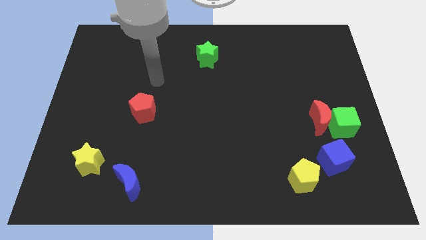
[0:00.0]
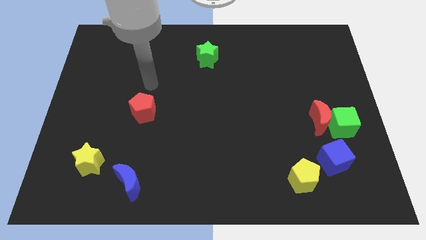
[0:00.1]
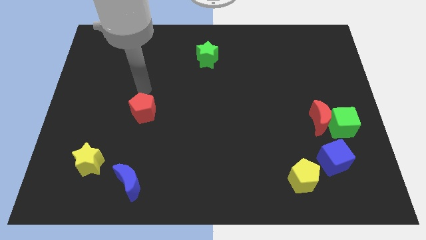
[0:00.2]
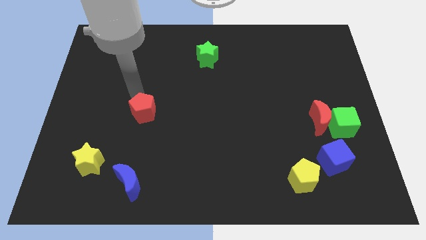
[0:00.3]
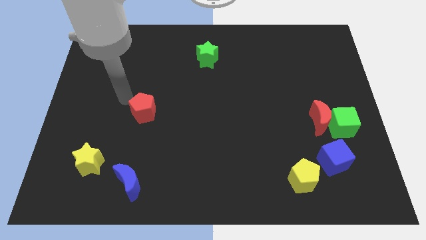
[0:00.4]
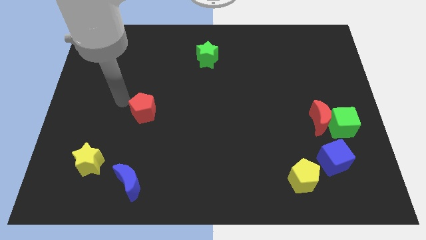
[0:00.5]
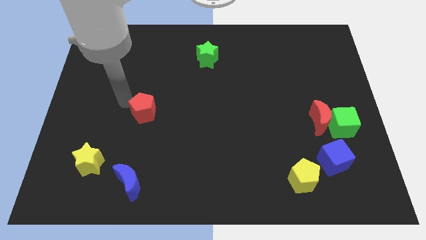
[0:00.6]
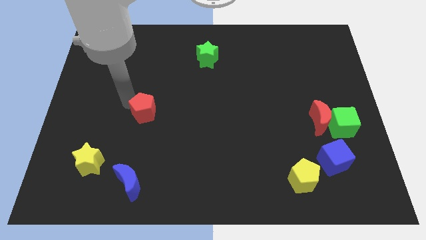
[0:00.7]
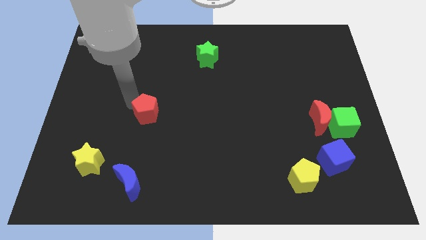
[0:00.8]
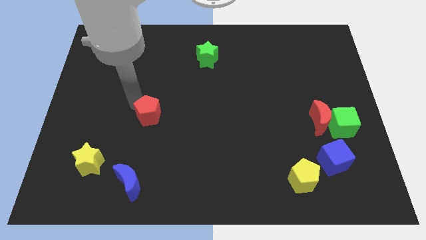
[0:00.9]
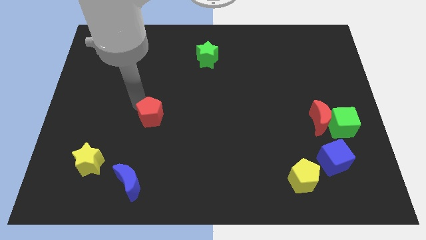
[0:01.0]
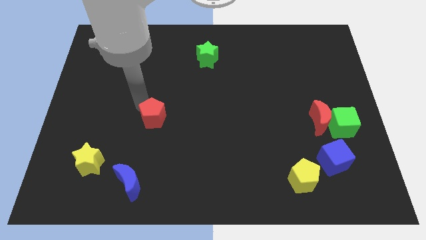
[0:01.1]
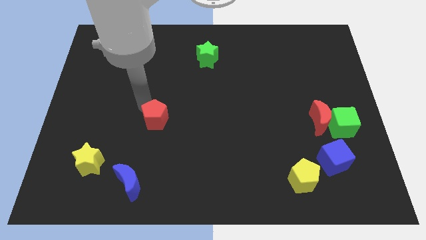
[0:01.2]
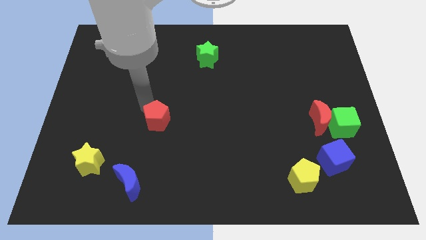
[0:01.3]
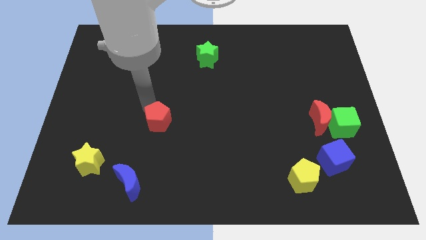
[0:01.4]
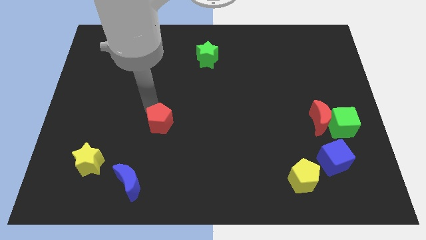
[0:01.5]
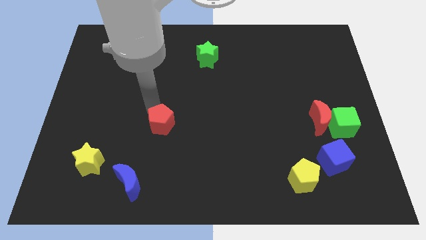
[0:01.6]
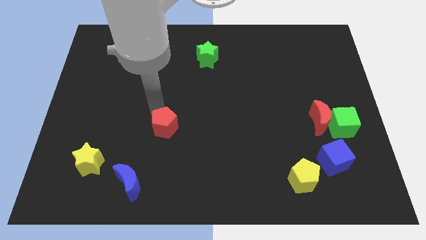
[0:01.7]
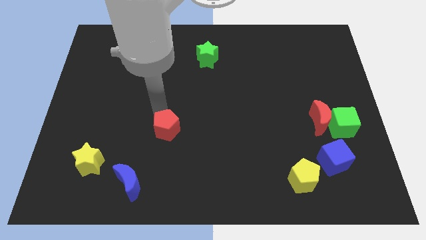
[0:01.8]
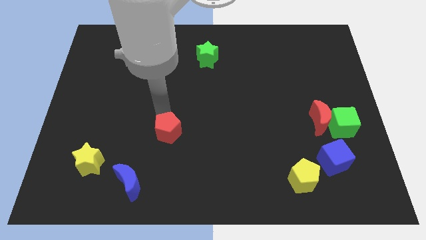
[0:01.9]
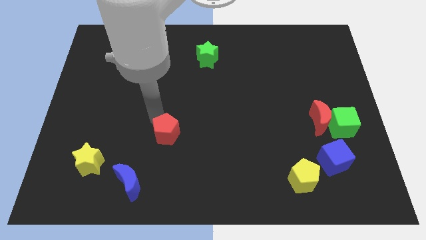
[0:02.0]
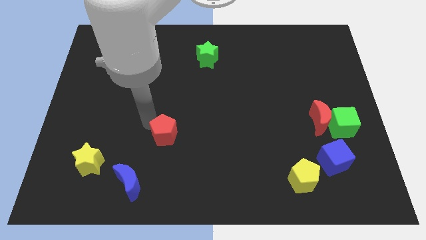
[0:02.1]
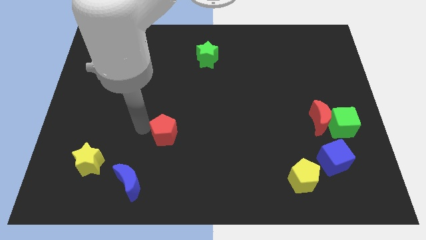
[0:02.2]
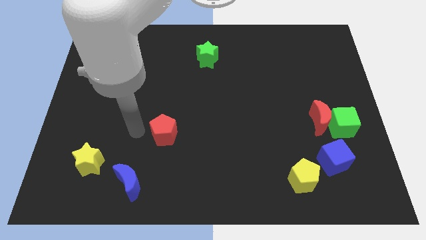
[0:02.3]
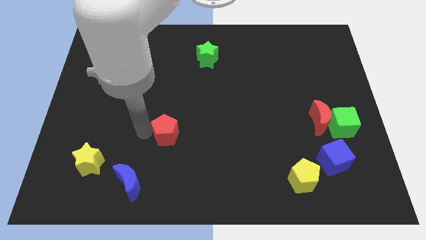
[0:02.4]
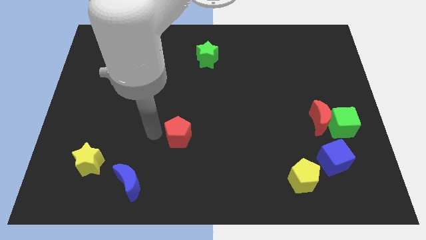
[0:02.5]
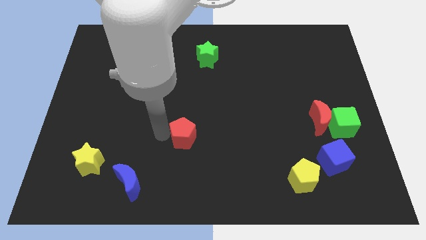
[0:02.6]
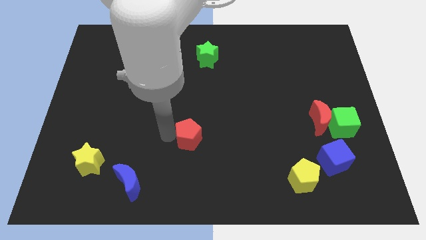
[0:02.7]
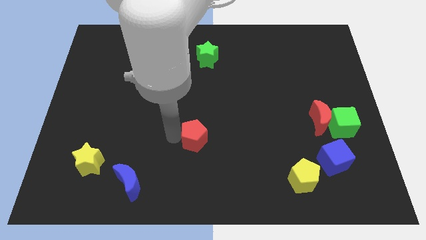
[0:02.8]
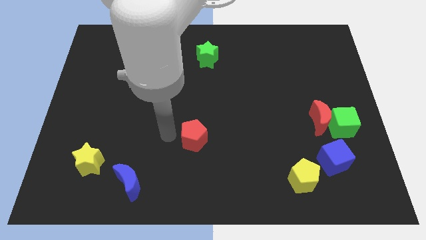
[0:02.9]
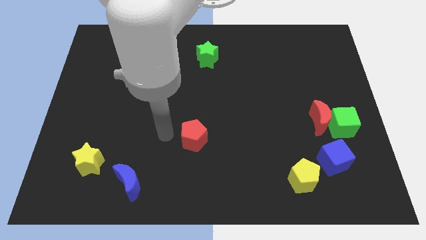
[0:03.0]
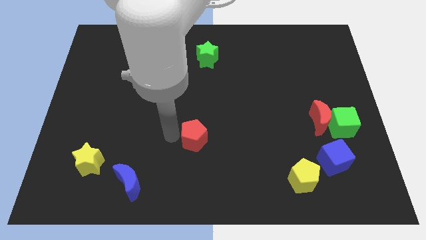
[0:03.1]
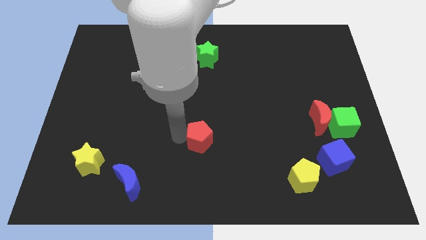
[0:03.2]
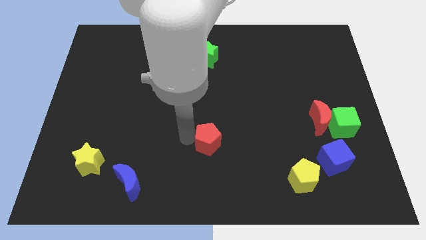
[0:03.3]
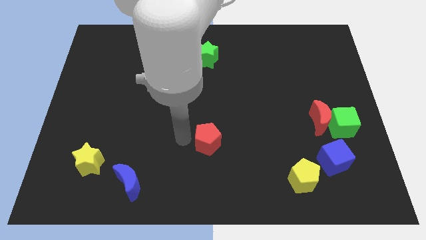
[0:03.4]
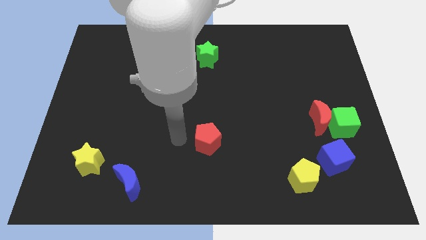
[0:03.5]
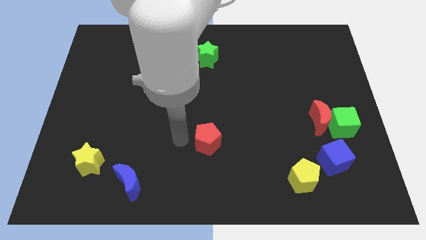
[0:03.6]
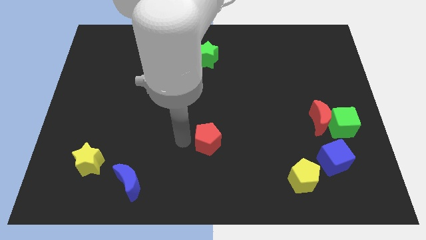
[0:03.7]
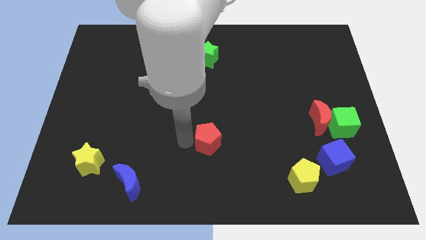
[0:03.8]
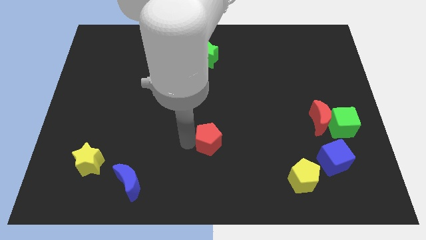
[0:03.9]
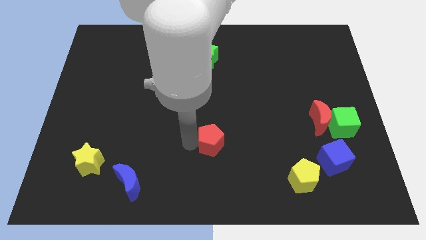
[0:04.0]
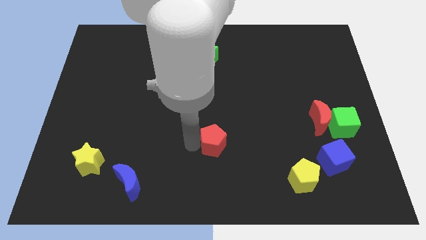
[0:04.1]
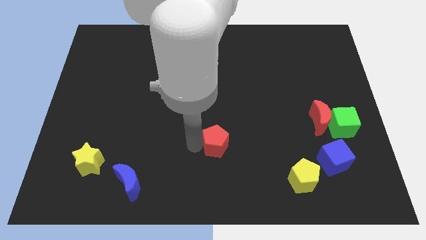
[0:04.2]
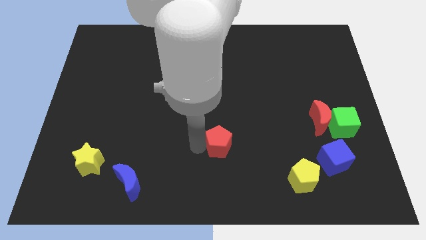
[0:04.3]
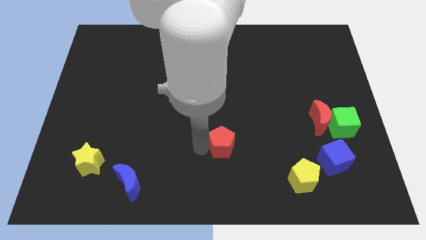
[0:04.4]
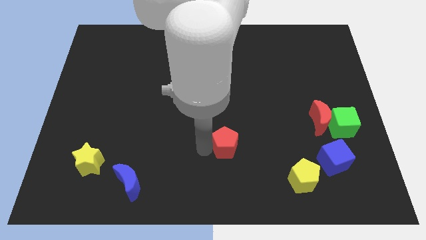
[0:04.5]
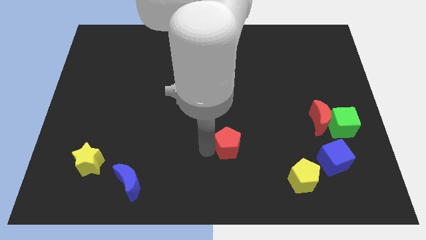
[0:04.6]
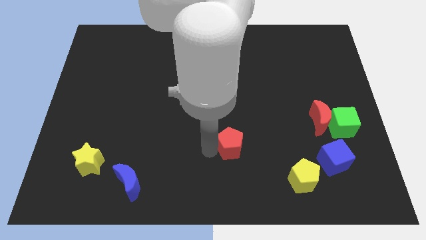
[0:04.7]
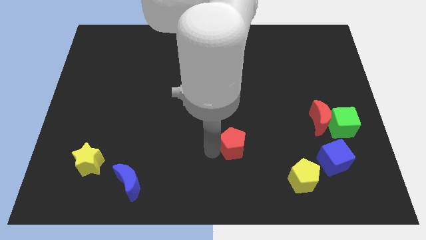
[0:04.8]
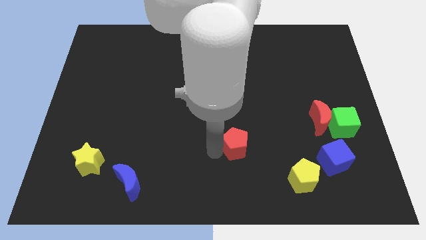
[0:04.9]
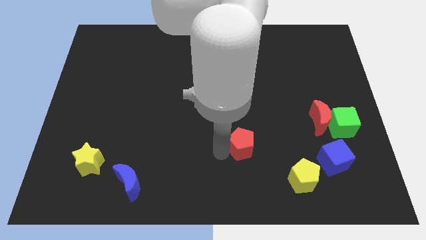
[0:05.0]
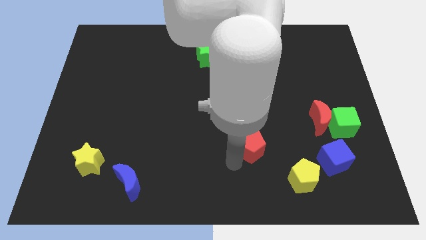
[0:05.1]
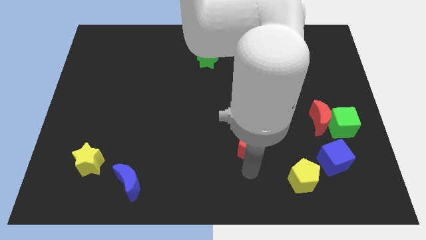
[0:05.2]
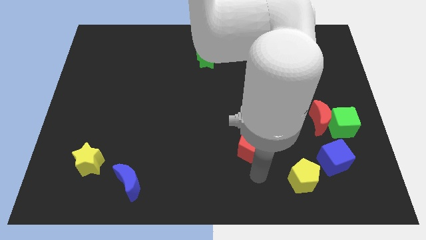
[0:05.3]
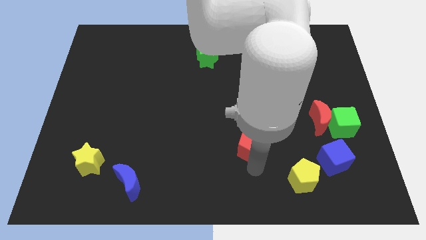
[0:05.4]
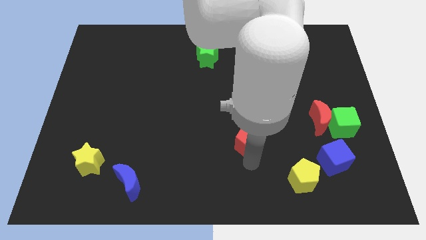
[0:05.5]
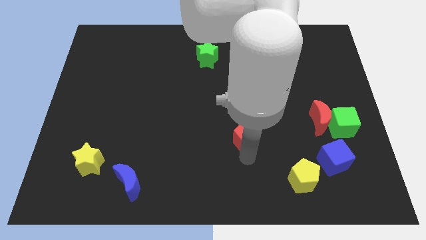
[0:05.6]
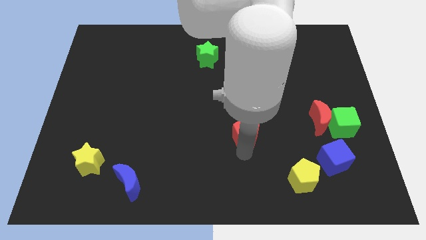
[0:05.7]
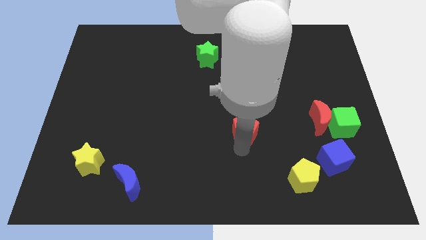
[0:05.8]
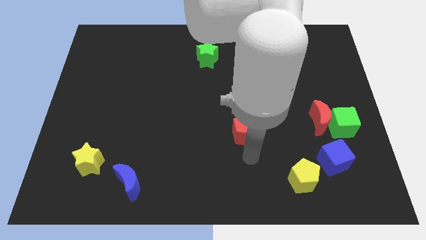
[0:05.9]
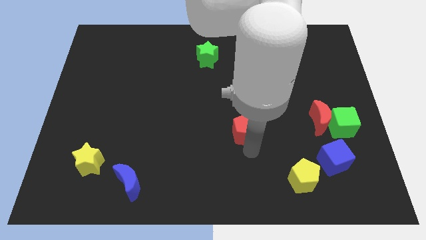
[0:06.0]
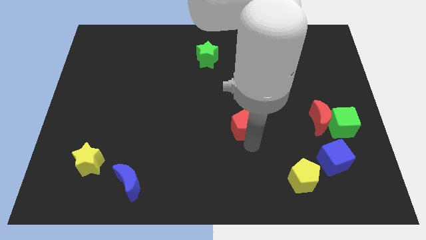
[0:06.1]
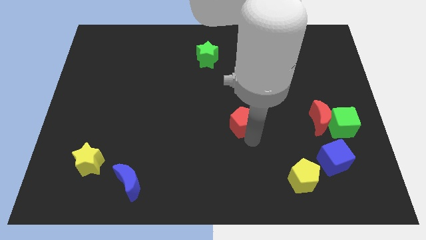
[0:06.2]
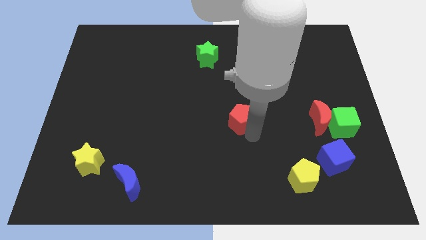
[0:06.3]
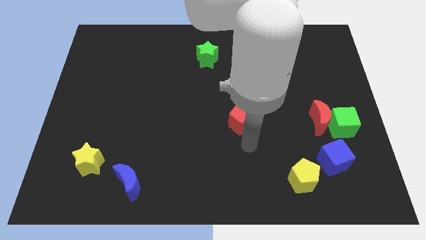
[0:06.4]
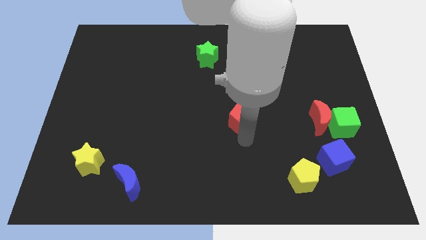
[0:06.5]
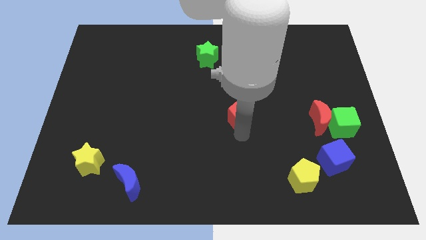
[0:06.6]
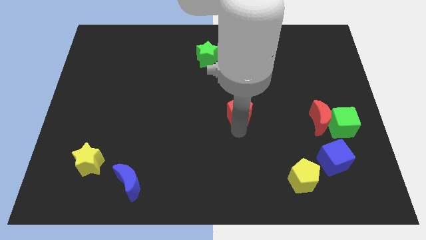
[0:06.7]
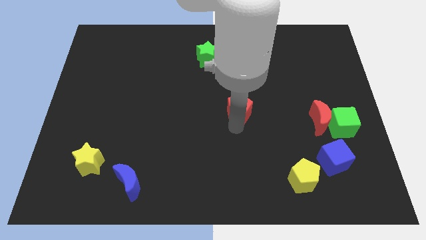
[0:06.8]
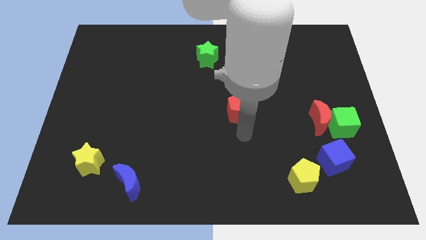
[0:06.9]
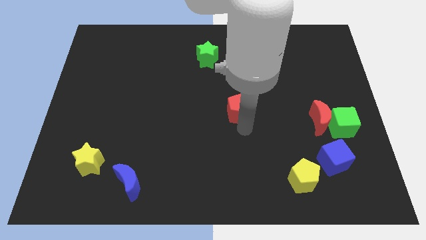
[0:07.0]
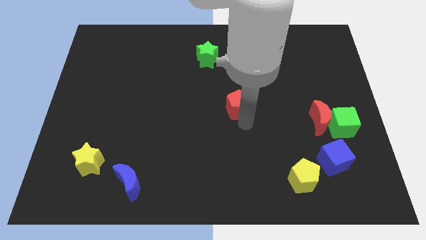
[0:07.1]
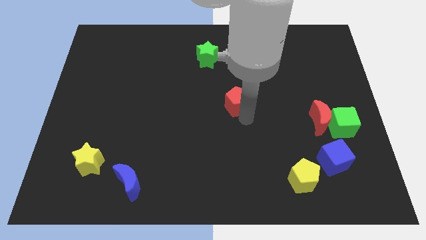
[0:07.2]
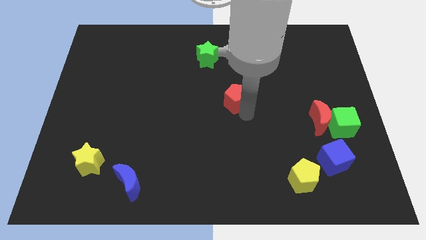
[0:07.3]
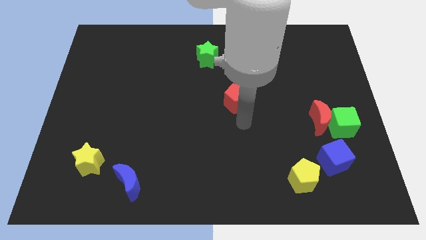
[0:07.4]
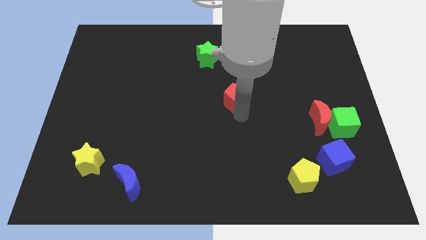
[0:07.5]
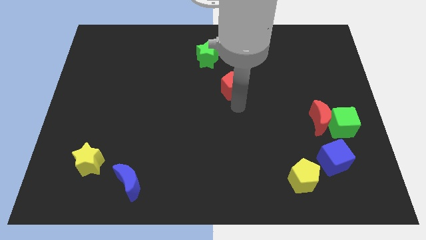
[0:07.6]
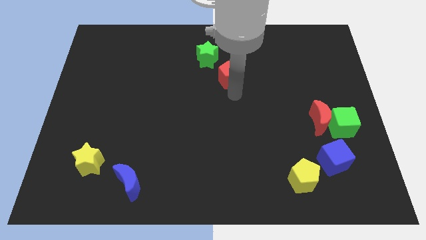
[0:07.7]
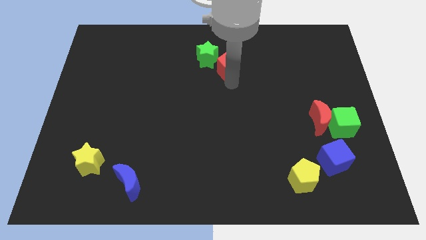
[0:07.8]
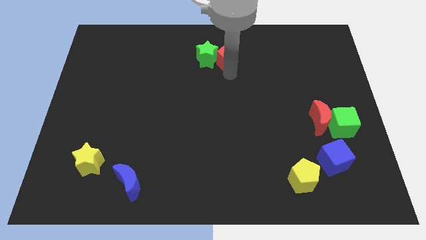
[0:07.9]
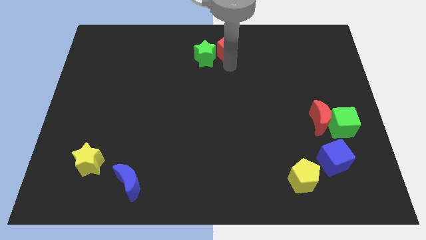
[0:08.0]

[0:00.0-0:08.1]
put the red pentagon to the top
